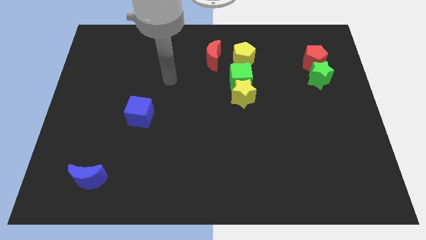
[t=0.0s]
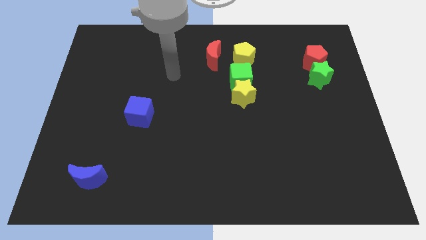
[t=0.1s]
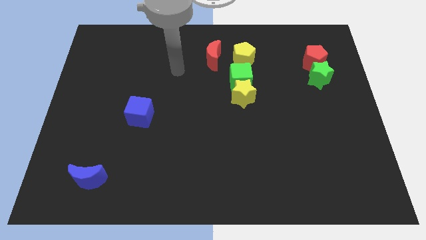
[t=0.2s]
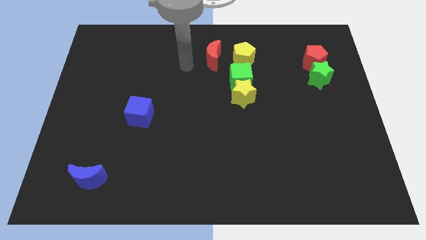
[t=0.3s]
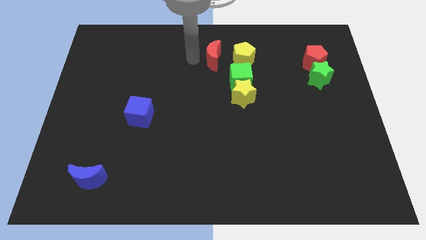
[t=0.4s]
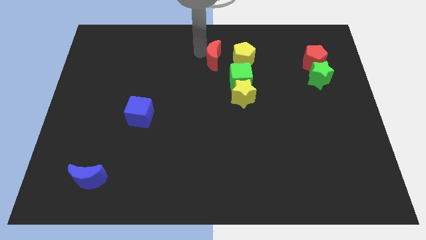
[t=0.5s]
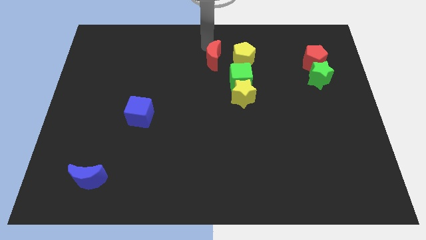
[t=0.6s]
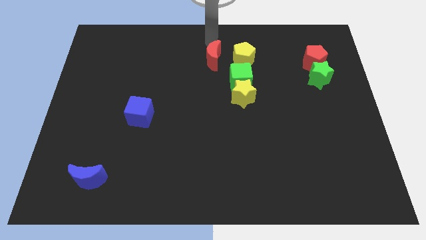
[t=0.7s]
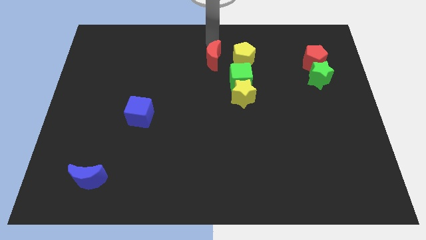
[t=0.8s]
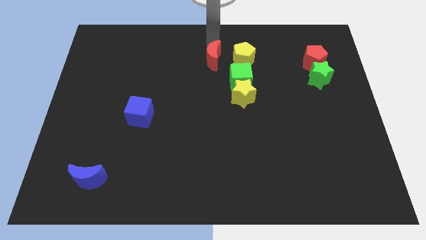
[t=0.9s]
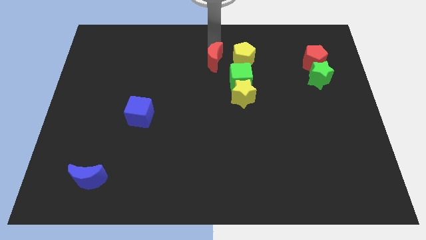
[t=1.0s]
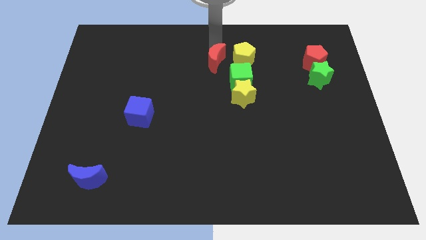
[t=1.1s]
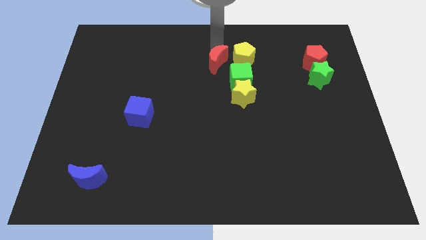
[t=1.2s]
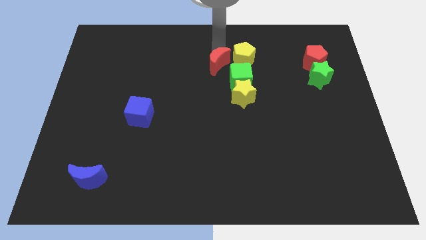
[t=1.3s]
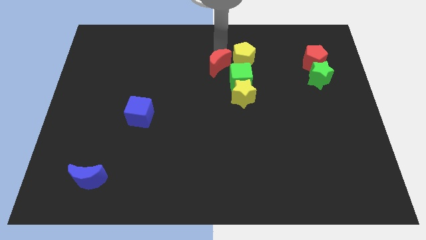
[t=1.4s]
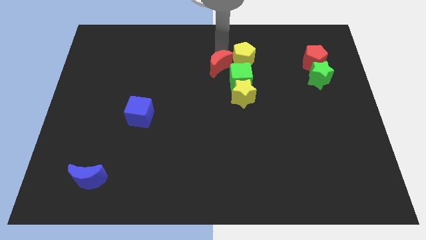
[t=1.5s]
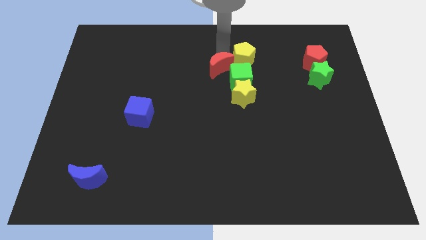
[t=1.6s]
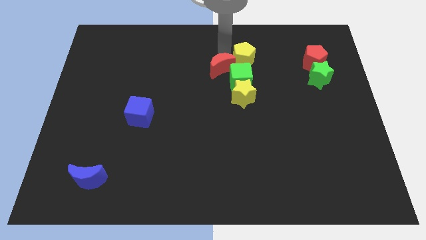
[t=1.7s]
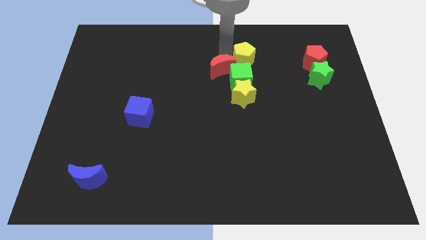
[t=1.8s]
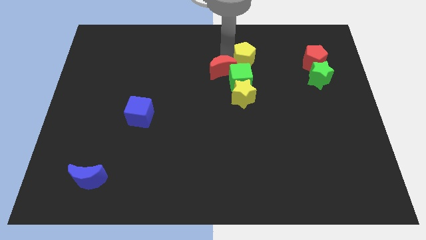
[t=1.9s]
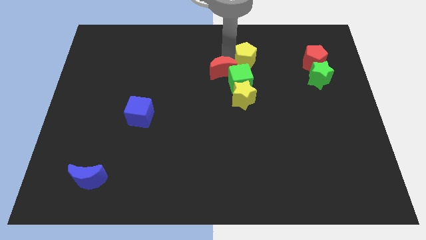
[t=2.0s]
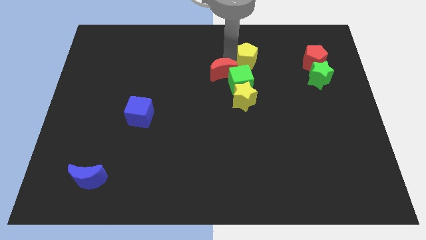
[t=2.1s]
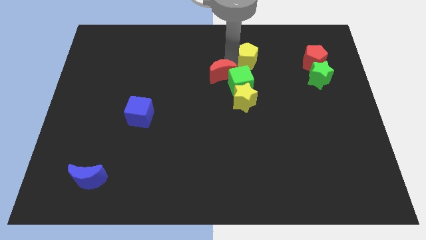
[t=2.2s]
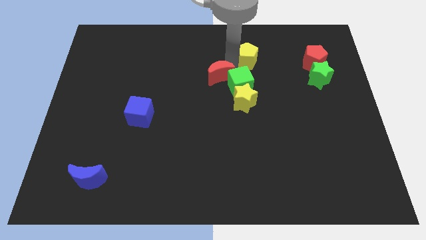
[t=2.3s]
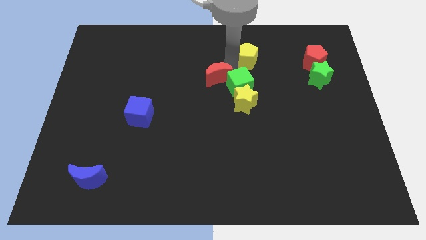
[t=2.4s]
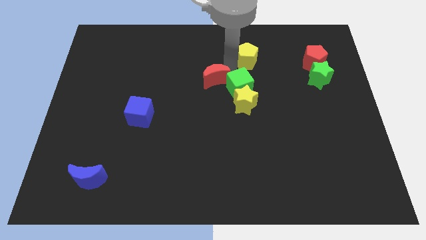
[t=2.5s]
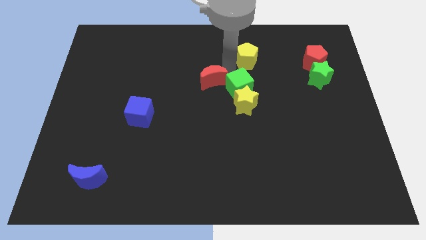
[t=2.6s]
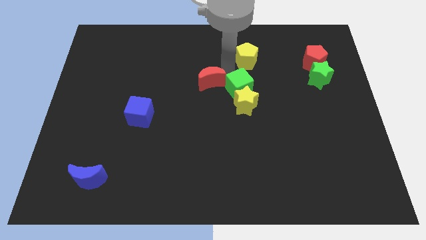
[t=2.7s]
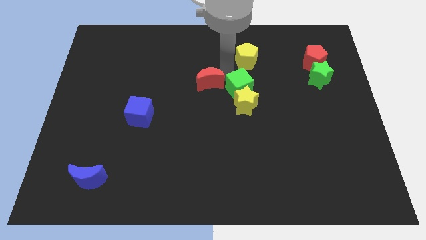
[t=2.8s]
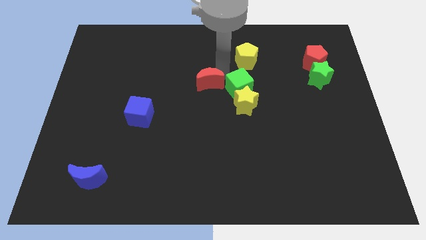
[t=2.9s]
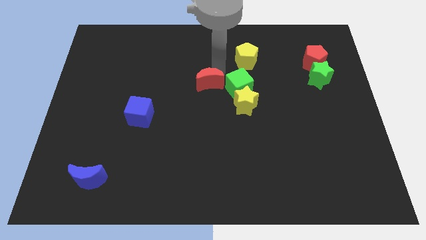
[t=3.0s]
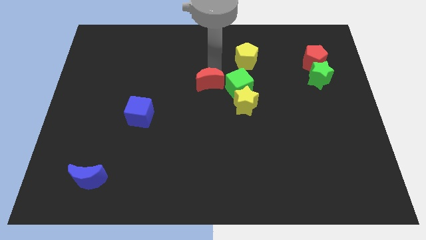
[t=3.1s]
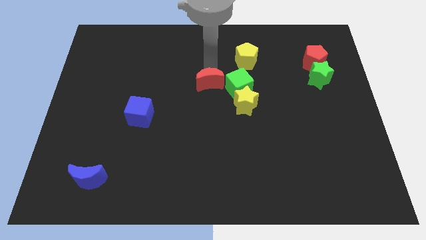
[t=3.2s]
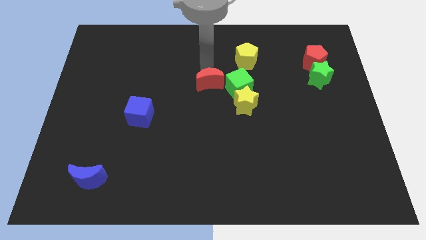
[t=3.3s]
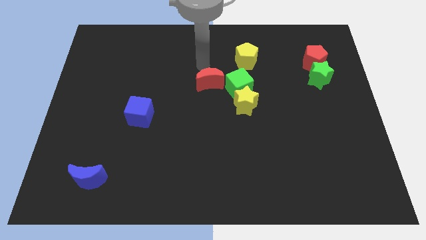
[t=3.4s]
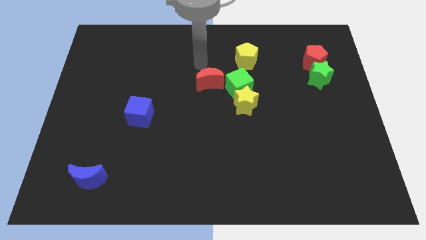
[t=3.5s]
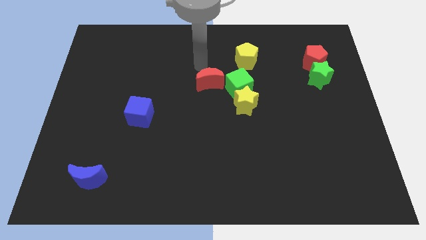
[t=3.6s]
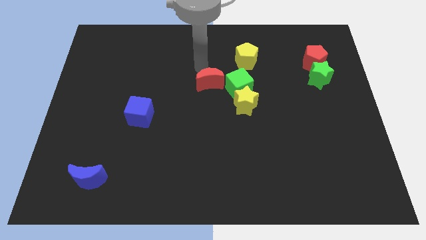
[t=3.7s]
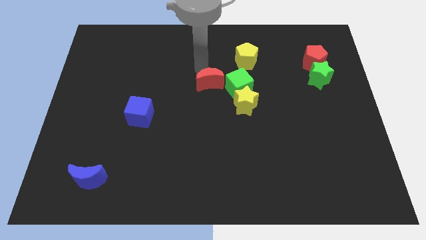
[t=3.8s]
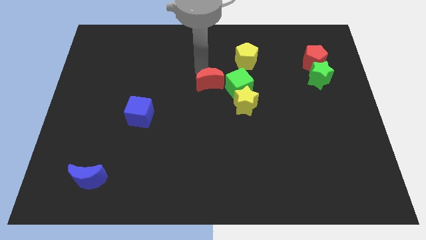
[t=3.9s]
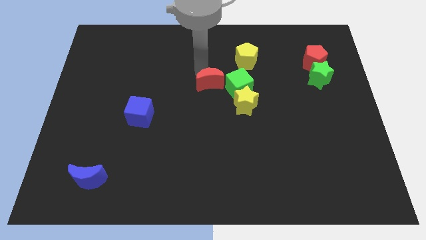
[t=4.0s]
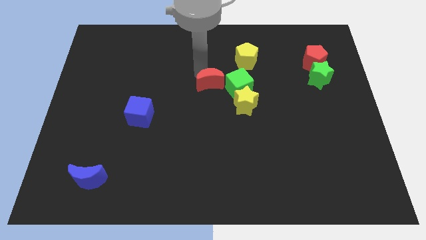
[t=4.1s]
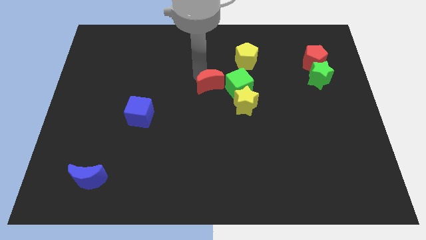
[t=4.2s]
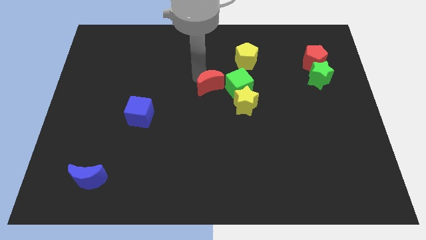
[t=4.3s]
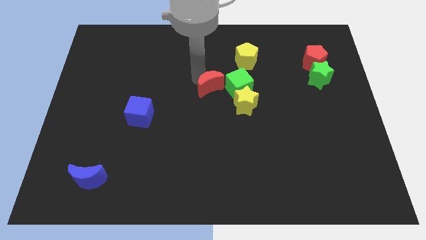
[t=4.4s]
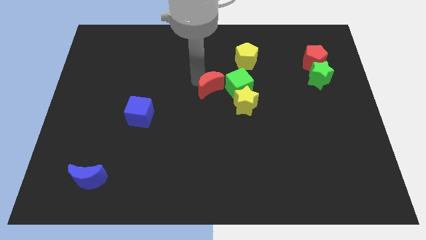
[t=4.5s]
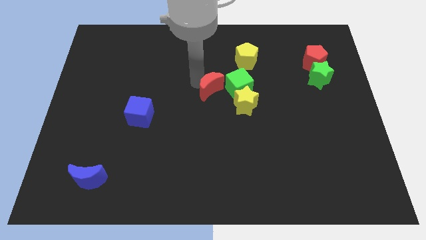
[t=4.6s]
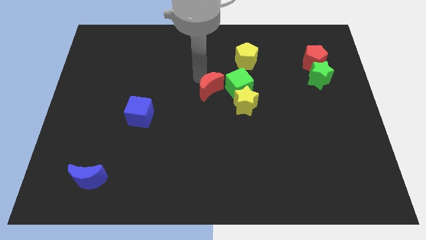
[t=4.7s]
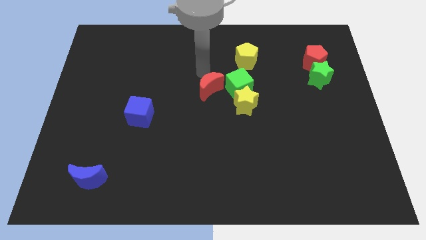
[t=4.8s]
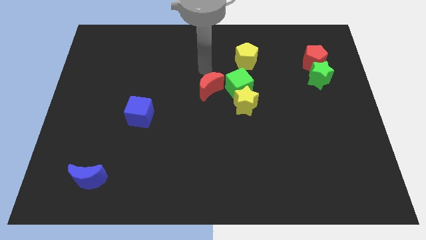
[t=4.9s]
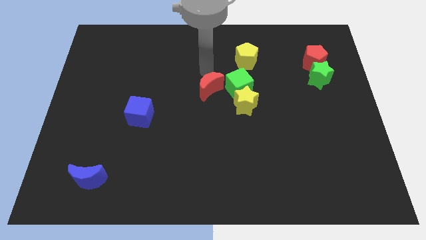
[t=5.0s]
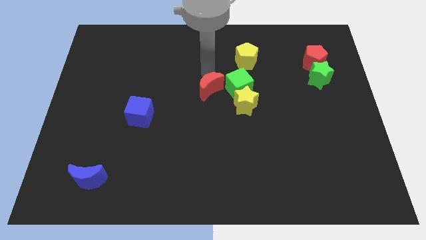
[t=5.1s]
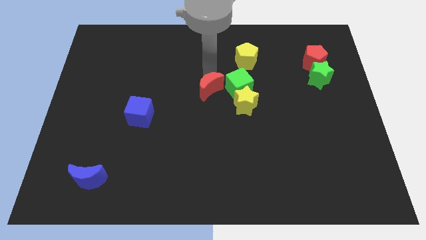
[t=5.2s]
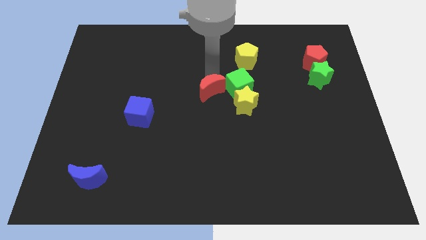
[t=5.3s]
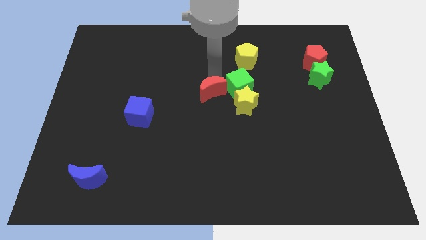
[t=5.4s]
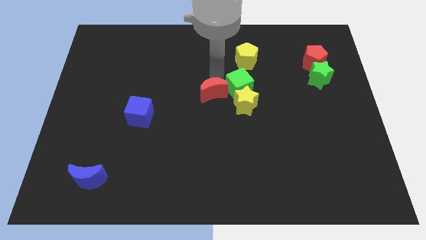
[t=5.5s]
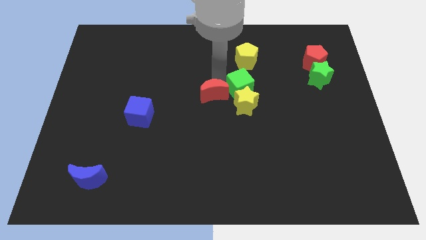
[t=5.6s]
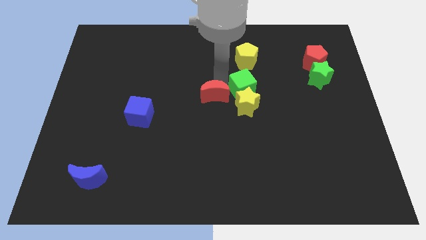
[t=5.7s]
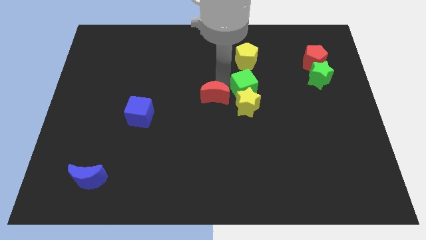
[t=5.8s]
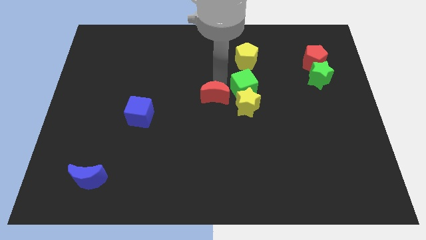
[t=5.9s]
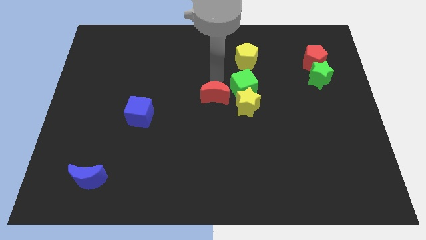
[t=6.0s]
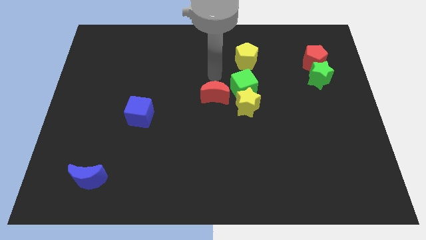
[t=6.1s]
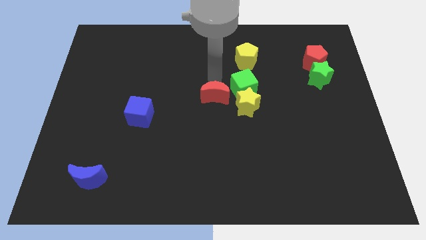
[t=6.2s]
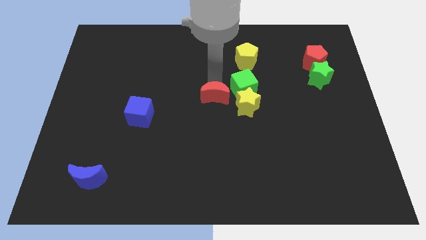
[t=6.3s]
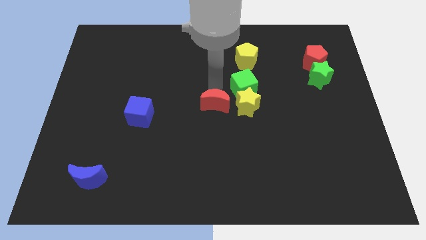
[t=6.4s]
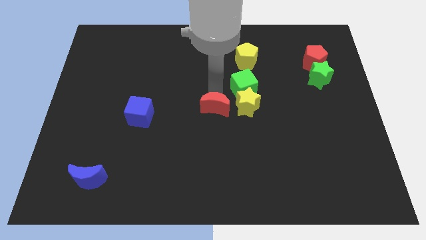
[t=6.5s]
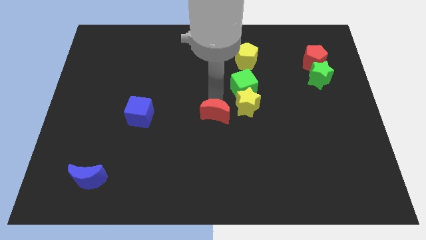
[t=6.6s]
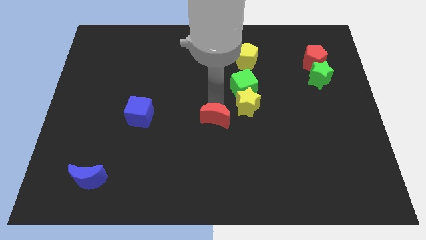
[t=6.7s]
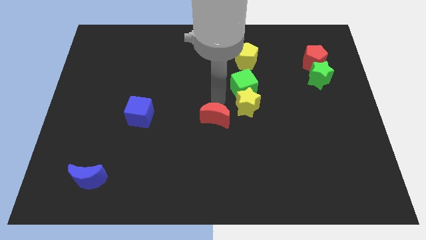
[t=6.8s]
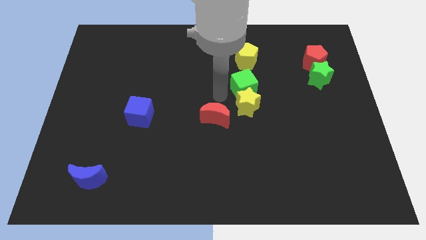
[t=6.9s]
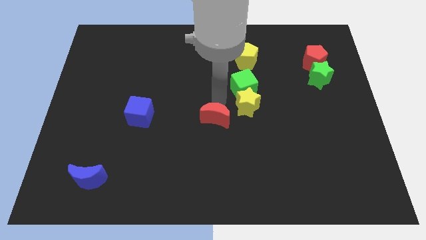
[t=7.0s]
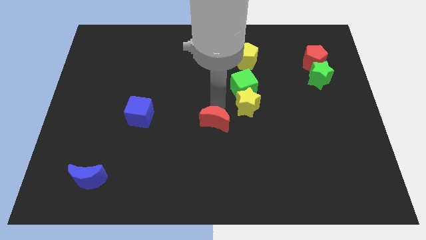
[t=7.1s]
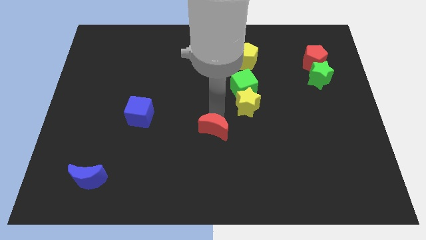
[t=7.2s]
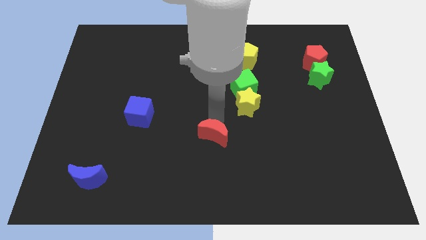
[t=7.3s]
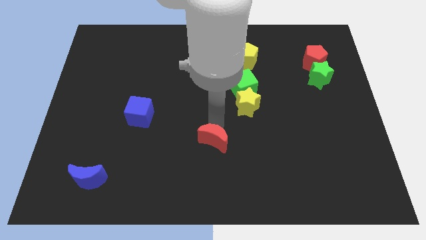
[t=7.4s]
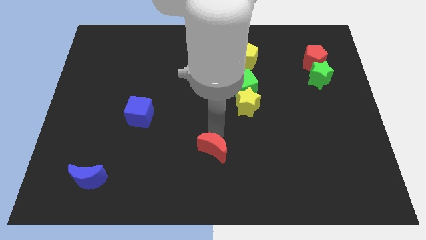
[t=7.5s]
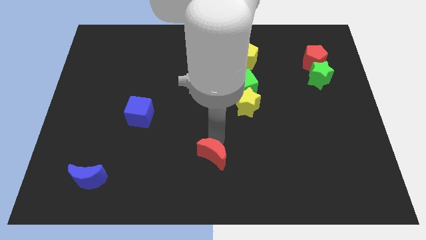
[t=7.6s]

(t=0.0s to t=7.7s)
push the red moon to the bottom side

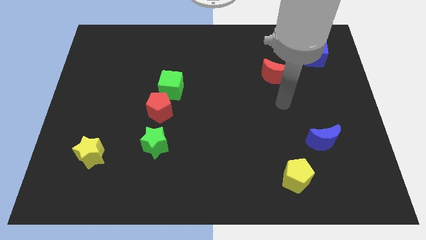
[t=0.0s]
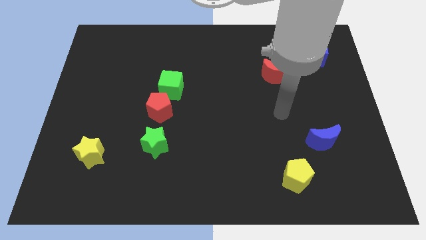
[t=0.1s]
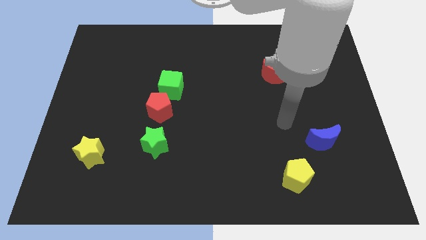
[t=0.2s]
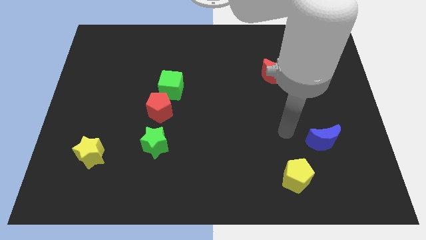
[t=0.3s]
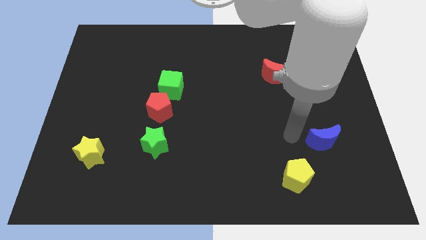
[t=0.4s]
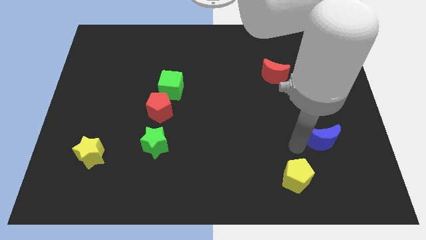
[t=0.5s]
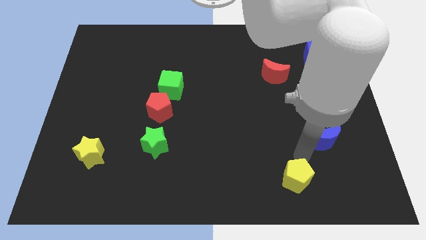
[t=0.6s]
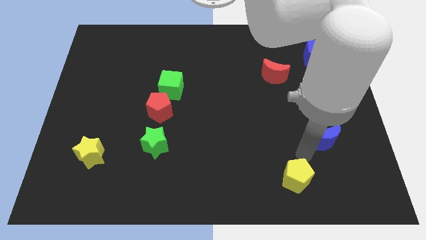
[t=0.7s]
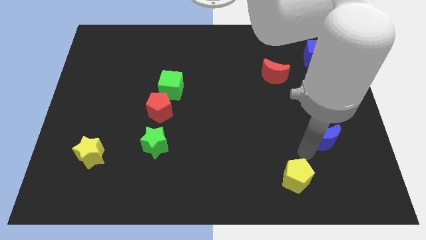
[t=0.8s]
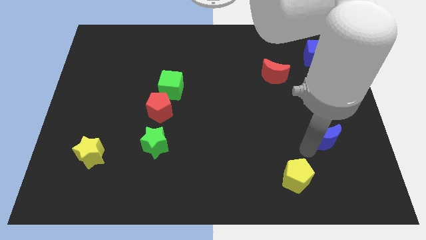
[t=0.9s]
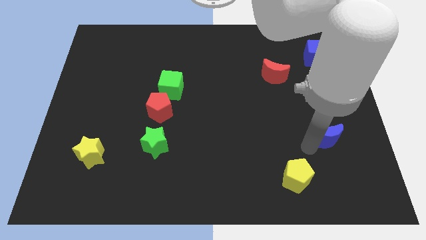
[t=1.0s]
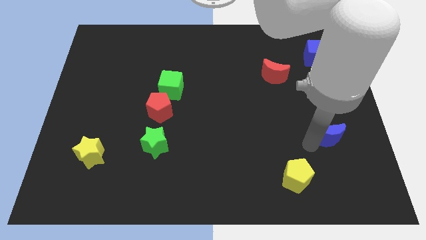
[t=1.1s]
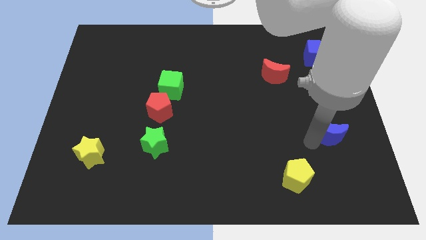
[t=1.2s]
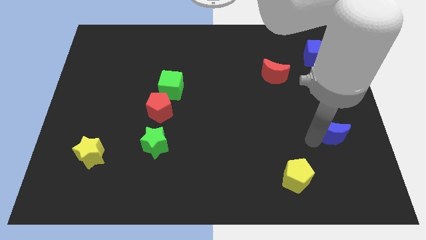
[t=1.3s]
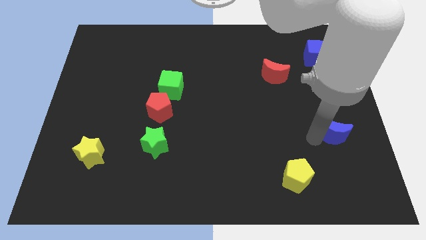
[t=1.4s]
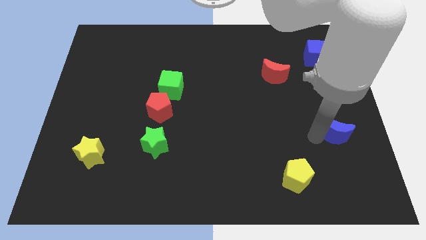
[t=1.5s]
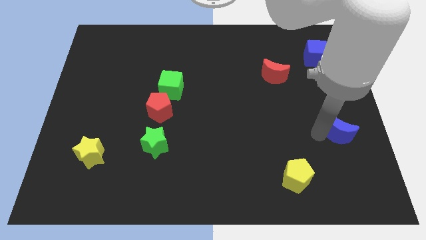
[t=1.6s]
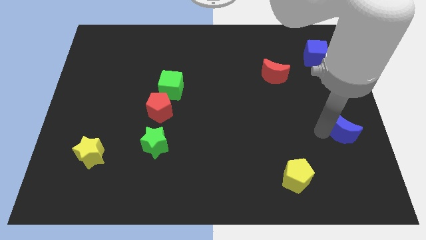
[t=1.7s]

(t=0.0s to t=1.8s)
push the blue moon to the right side of the board
